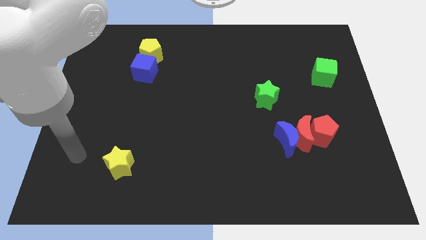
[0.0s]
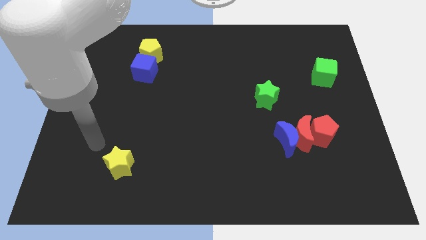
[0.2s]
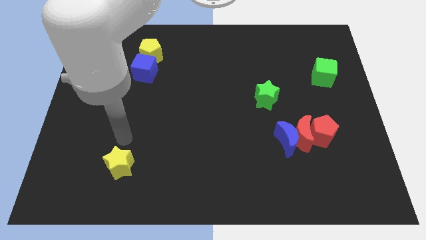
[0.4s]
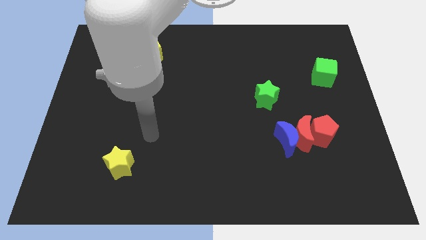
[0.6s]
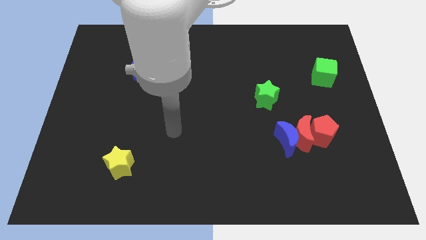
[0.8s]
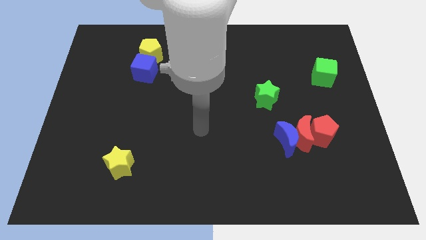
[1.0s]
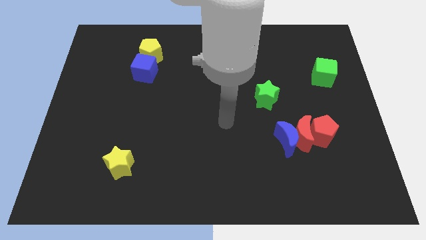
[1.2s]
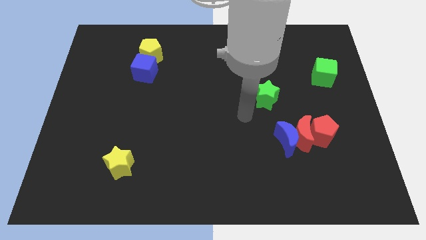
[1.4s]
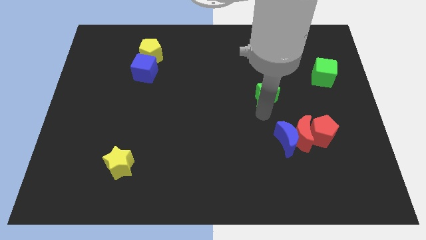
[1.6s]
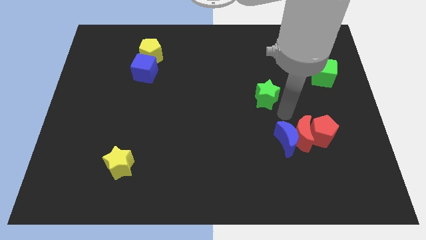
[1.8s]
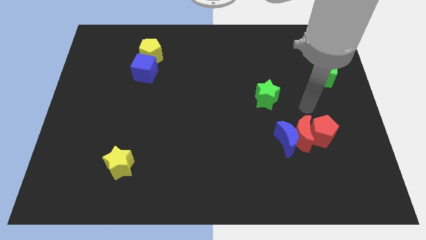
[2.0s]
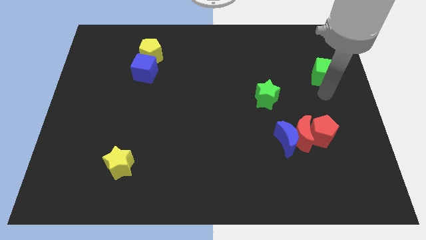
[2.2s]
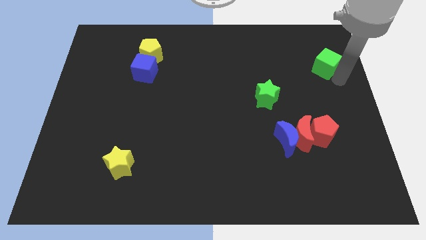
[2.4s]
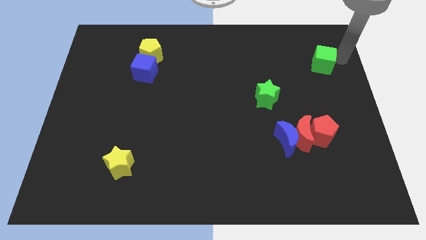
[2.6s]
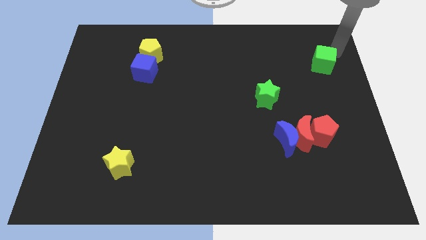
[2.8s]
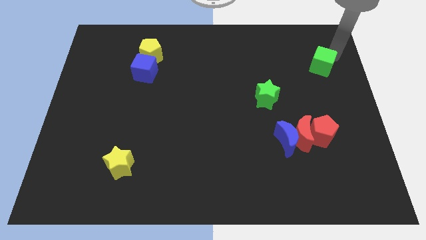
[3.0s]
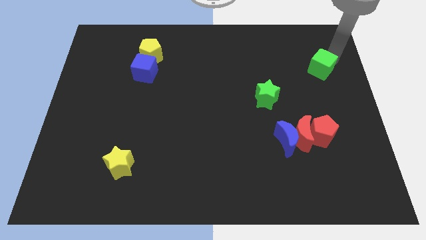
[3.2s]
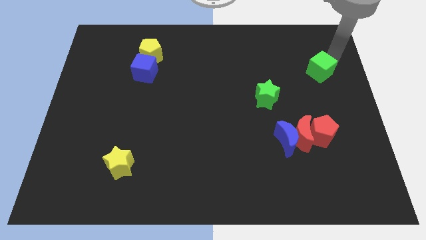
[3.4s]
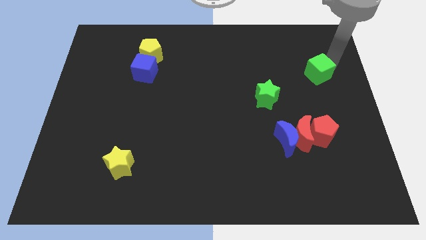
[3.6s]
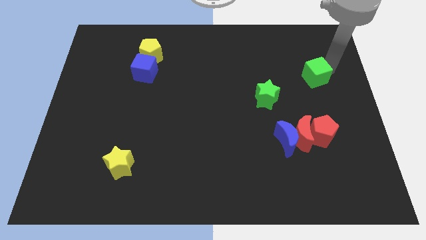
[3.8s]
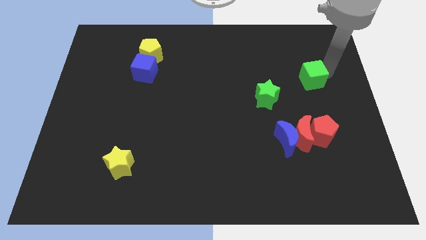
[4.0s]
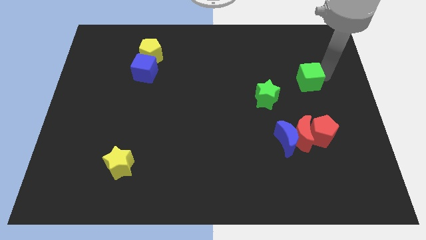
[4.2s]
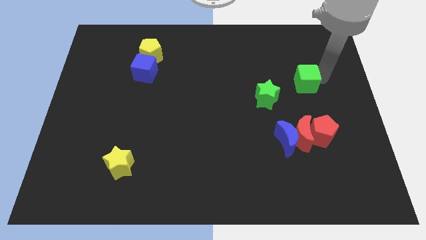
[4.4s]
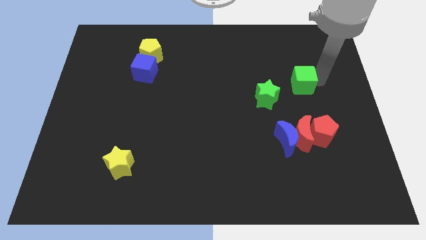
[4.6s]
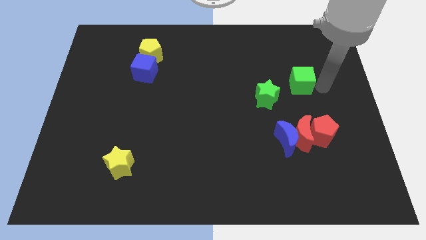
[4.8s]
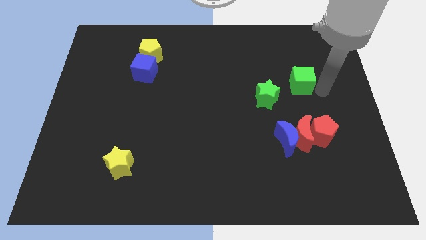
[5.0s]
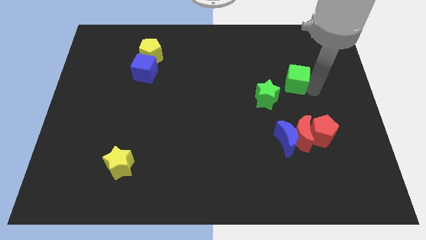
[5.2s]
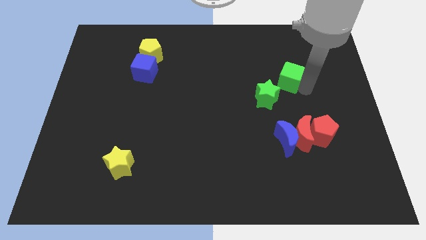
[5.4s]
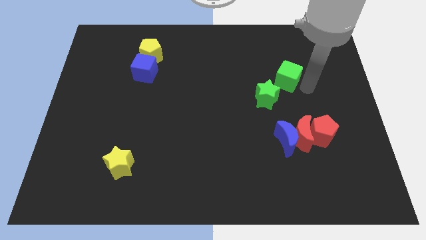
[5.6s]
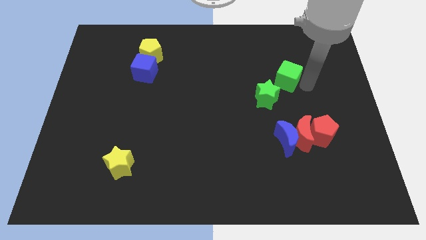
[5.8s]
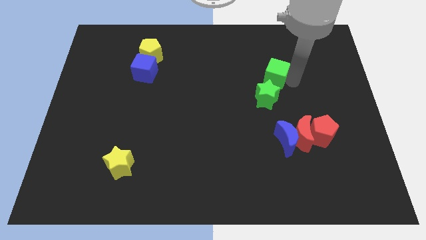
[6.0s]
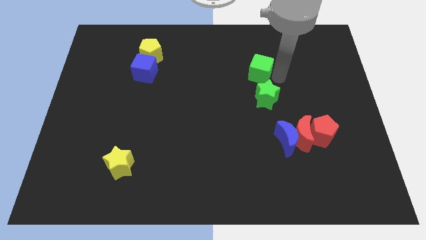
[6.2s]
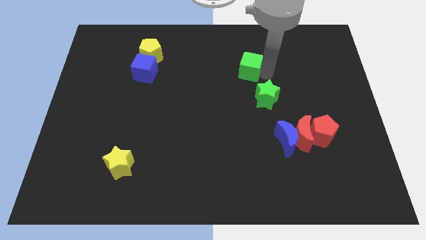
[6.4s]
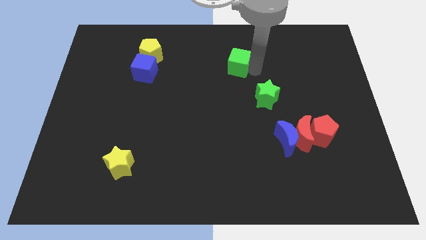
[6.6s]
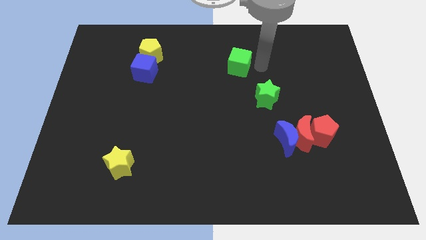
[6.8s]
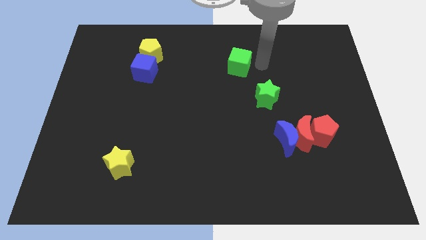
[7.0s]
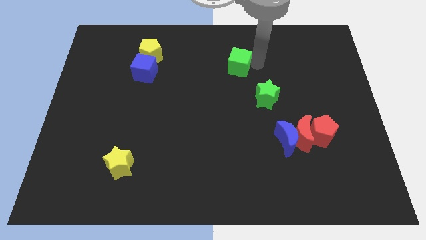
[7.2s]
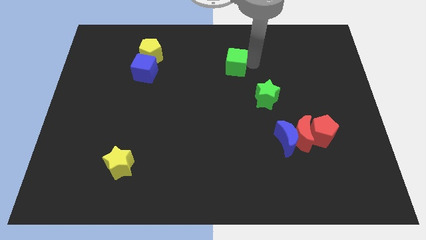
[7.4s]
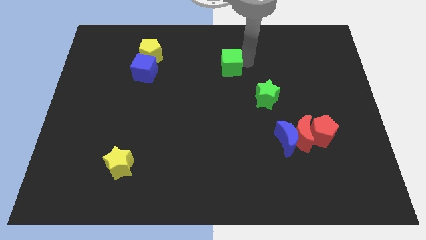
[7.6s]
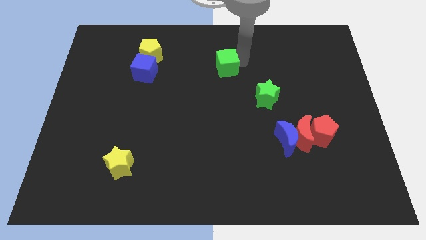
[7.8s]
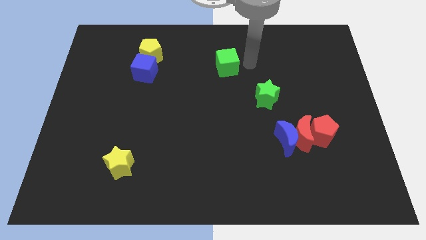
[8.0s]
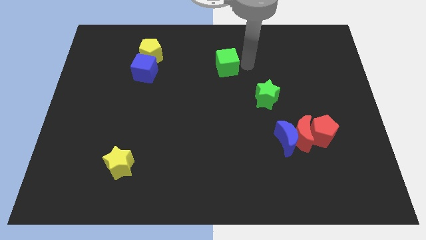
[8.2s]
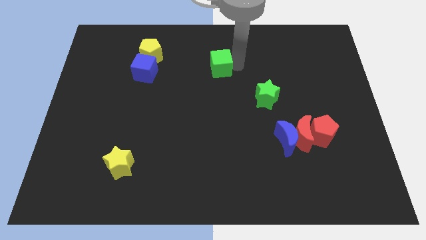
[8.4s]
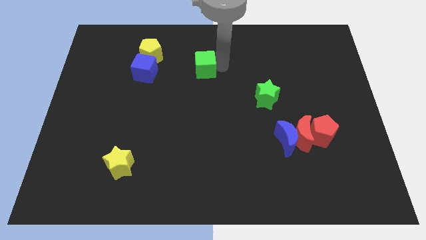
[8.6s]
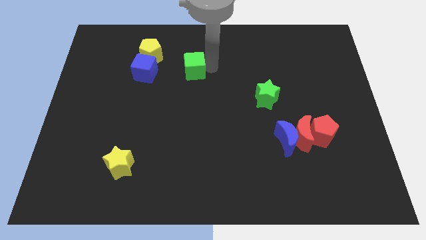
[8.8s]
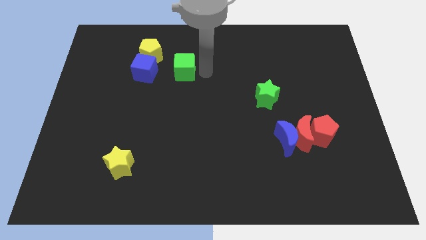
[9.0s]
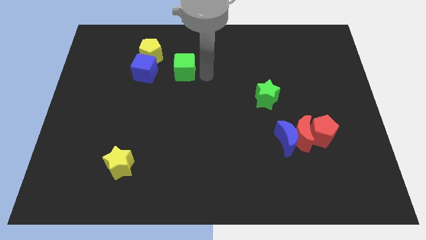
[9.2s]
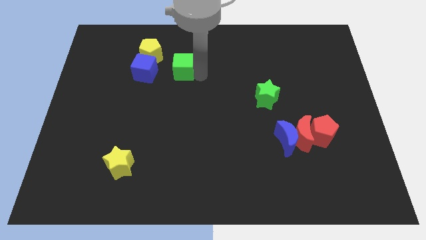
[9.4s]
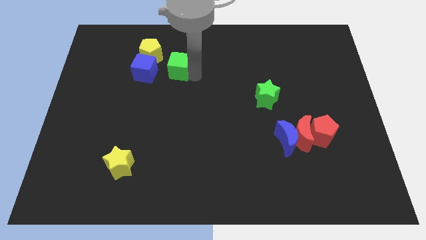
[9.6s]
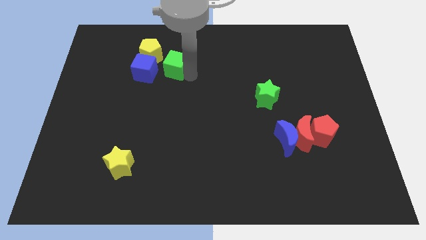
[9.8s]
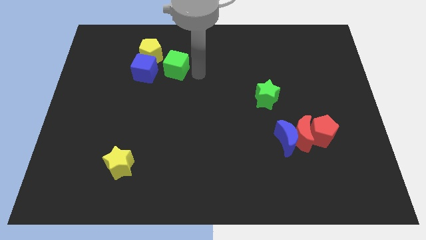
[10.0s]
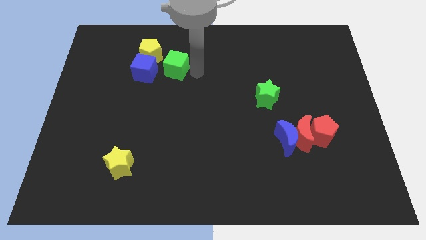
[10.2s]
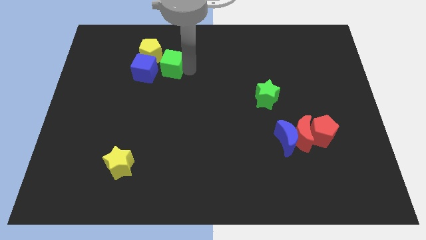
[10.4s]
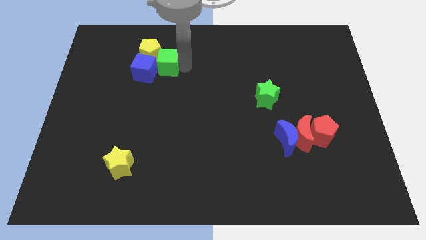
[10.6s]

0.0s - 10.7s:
slide the green cube to the blue cube

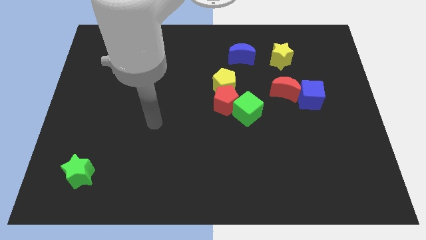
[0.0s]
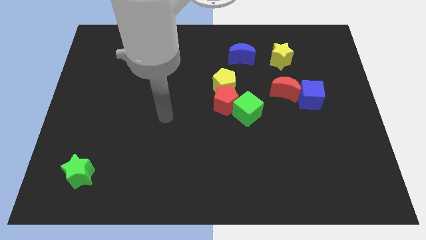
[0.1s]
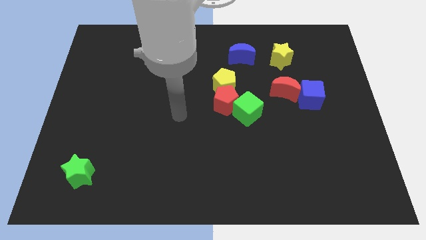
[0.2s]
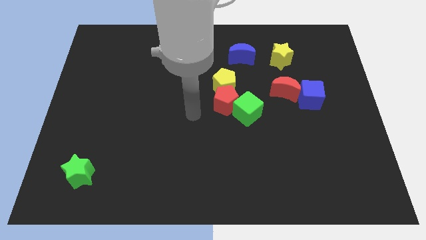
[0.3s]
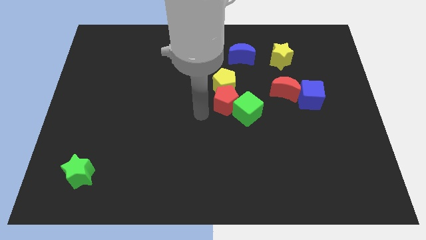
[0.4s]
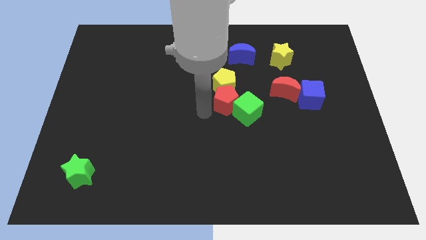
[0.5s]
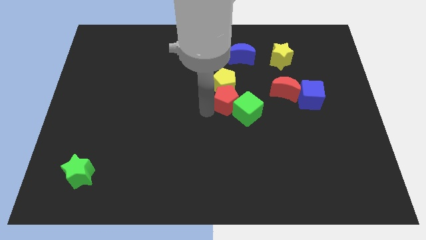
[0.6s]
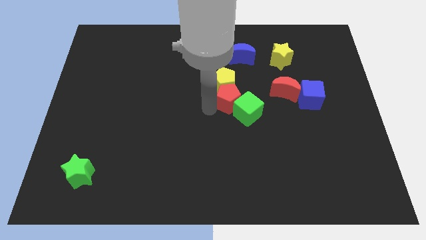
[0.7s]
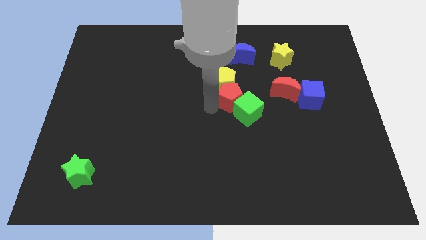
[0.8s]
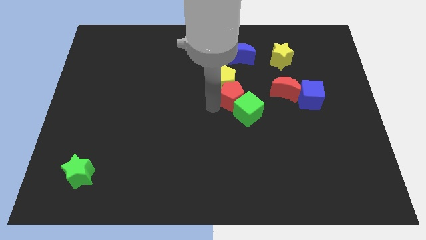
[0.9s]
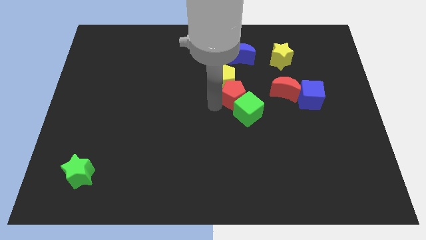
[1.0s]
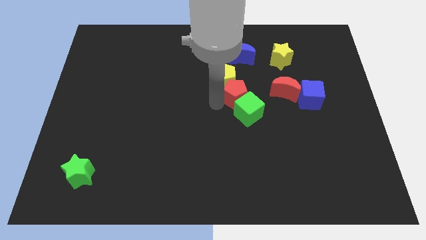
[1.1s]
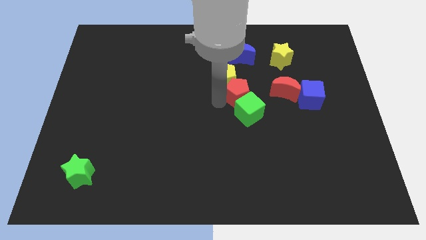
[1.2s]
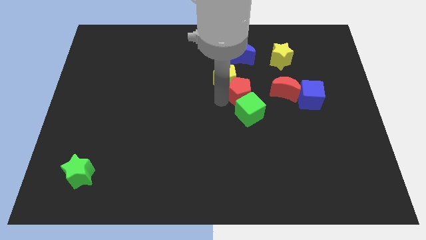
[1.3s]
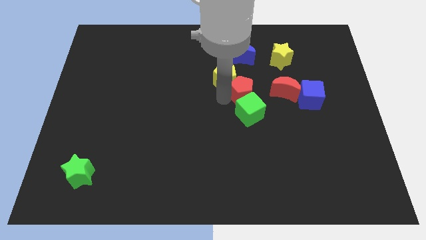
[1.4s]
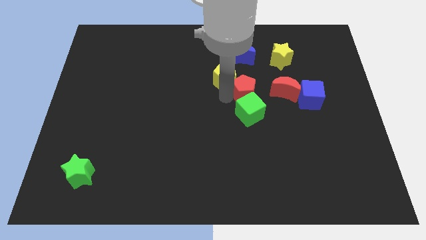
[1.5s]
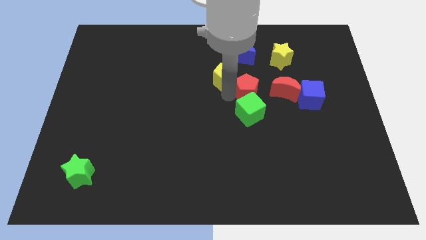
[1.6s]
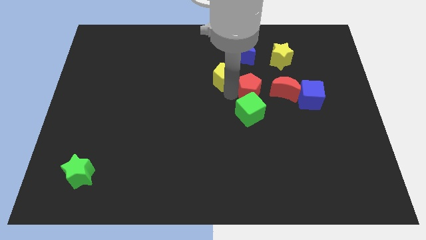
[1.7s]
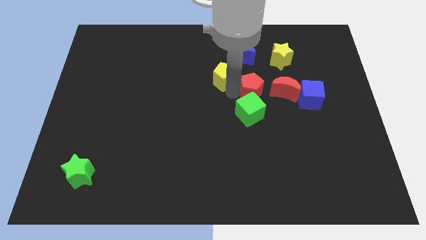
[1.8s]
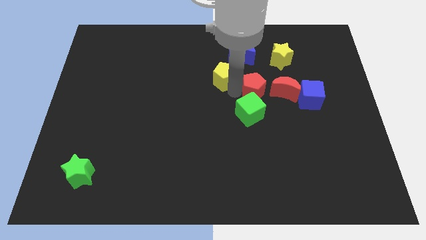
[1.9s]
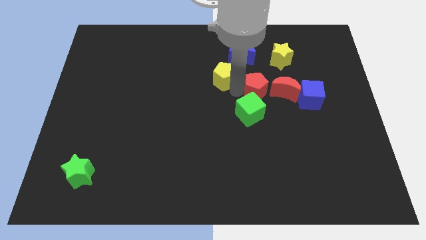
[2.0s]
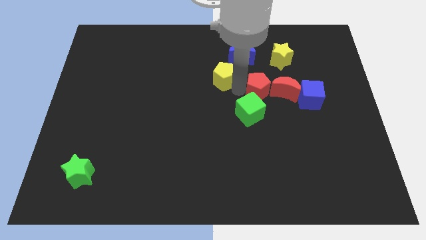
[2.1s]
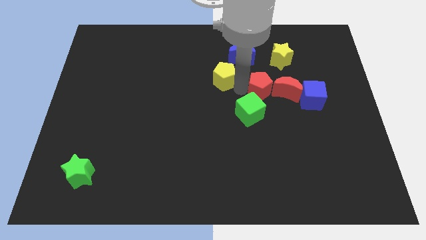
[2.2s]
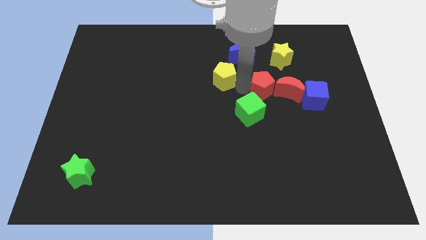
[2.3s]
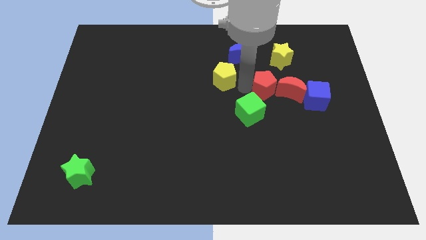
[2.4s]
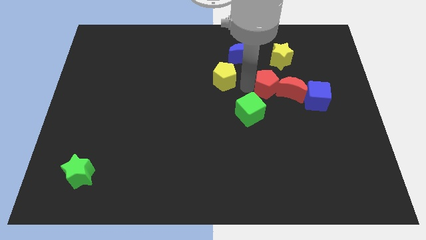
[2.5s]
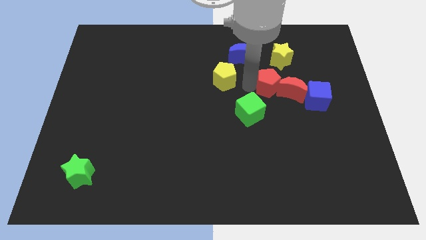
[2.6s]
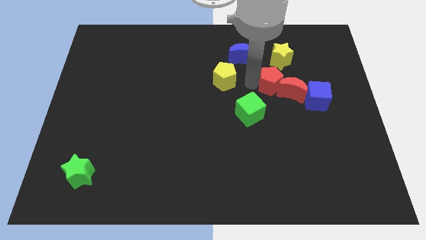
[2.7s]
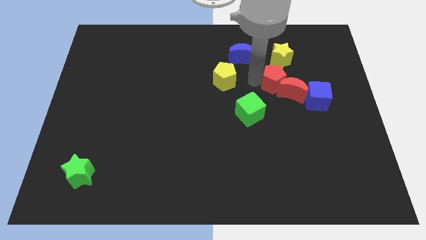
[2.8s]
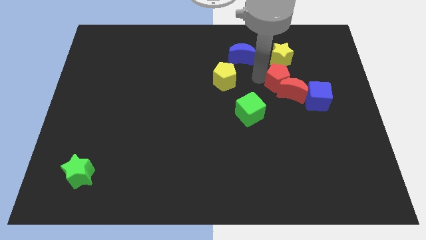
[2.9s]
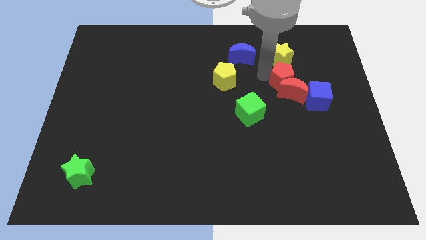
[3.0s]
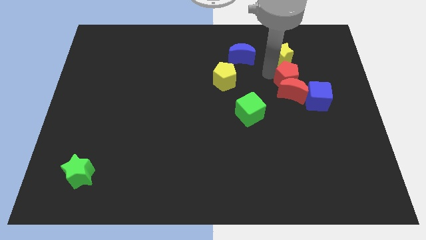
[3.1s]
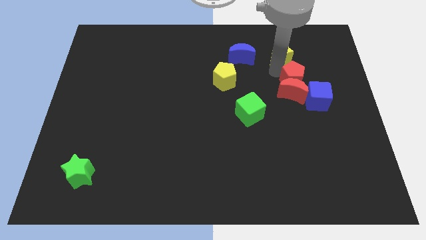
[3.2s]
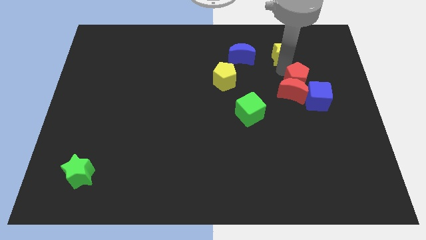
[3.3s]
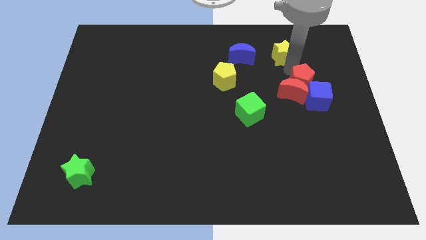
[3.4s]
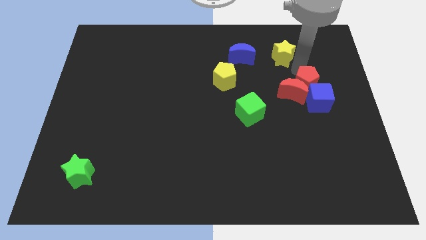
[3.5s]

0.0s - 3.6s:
put the red pentagon towards the blue cube
